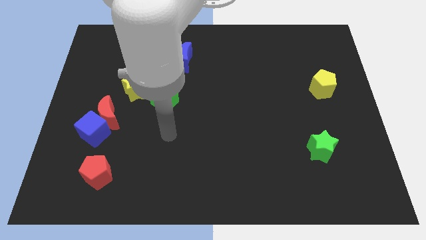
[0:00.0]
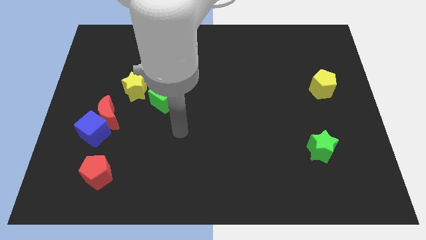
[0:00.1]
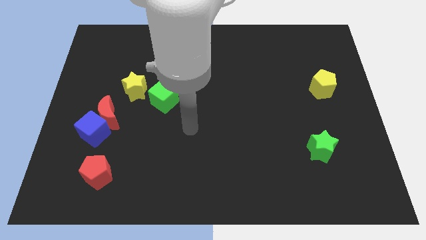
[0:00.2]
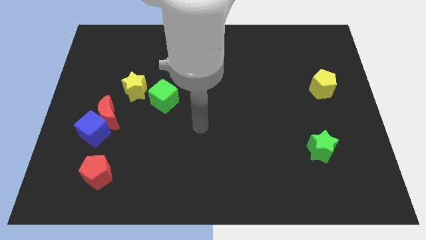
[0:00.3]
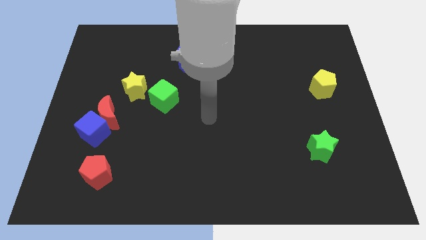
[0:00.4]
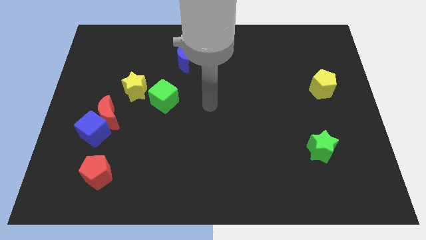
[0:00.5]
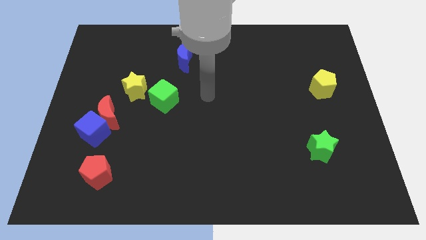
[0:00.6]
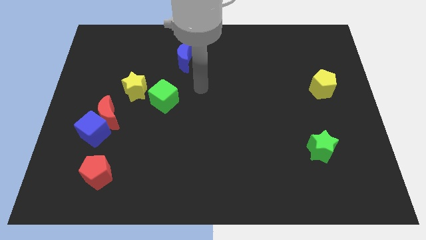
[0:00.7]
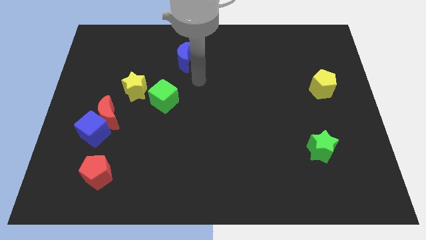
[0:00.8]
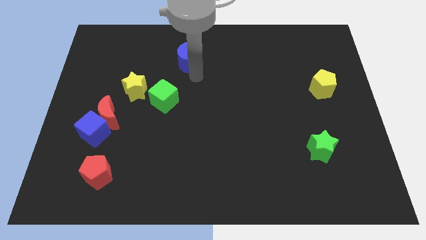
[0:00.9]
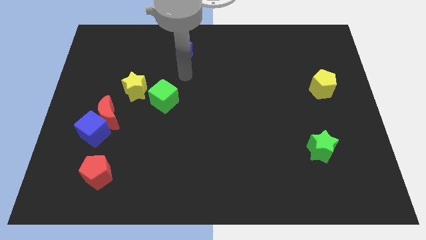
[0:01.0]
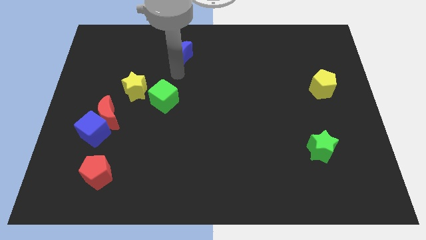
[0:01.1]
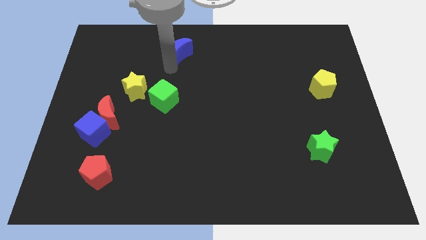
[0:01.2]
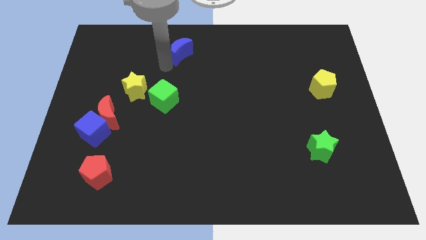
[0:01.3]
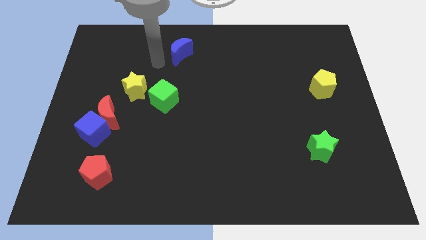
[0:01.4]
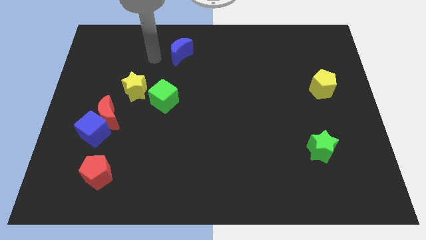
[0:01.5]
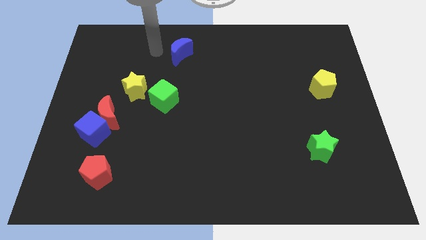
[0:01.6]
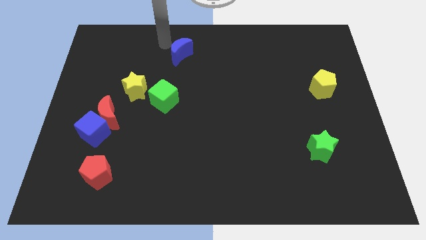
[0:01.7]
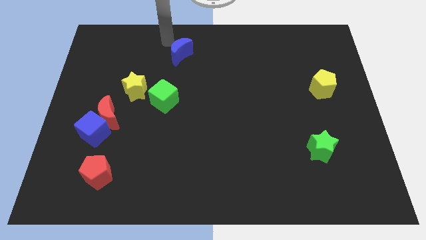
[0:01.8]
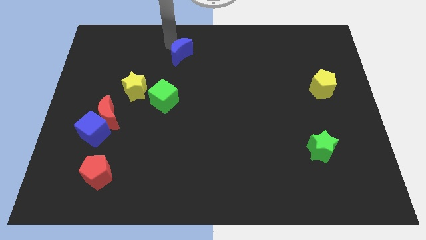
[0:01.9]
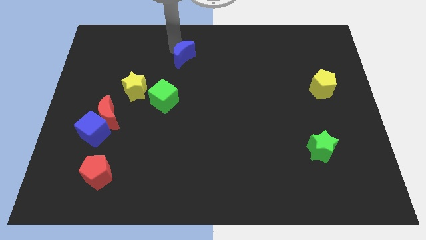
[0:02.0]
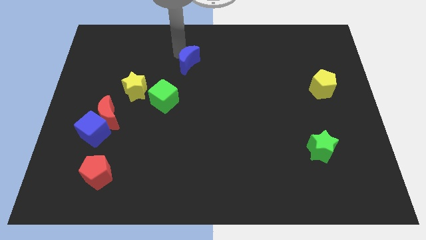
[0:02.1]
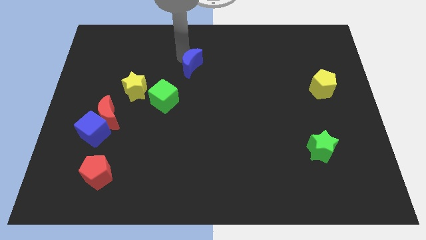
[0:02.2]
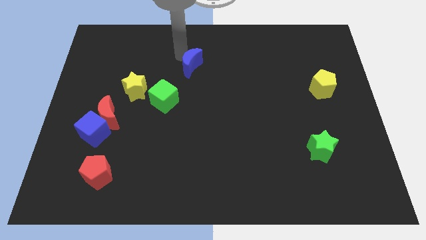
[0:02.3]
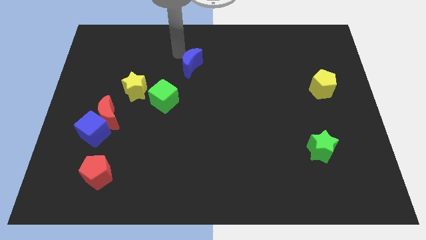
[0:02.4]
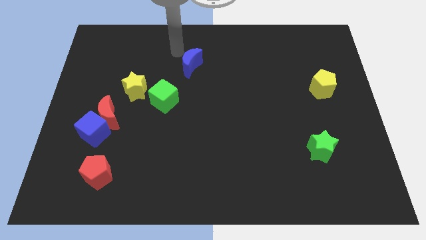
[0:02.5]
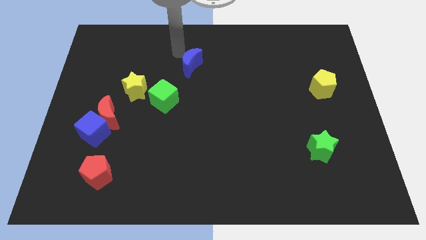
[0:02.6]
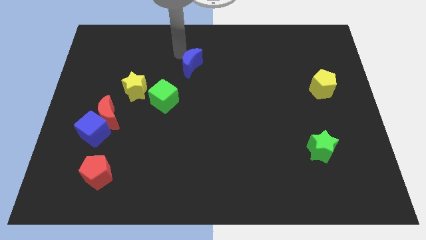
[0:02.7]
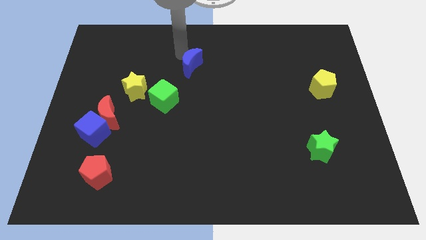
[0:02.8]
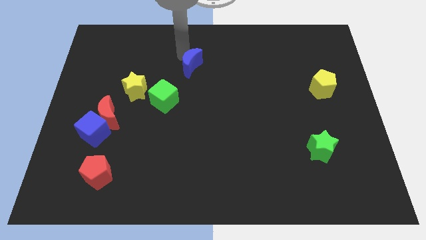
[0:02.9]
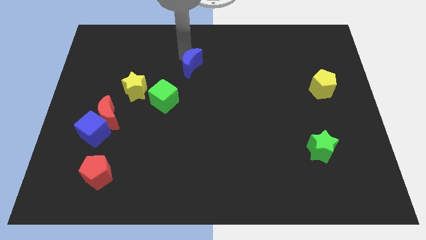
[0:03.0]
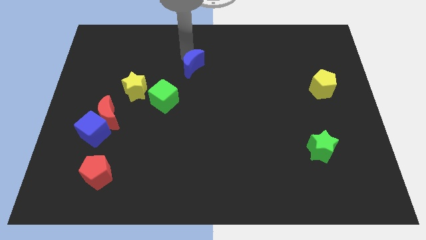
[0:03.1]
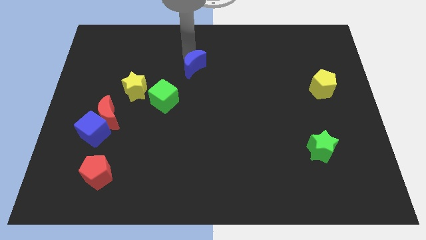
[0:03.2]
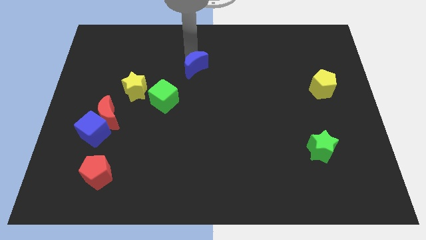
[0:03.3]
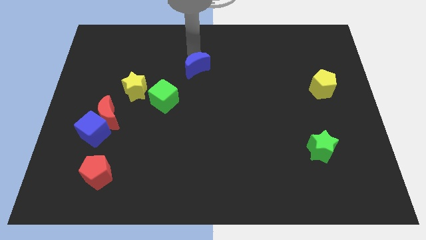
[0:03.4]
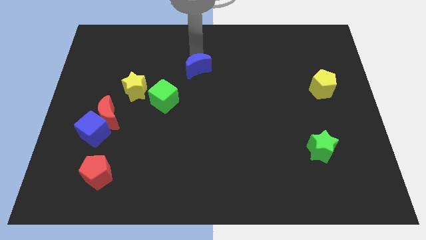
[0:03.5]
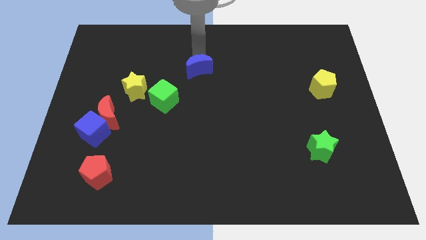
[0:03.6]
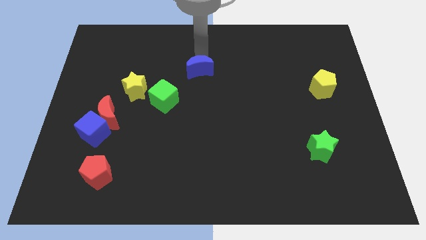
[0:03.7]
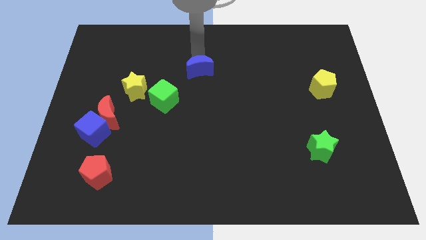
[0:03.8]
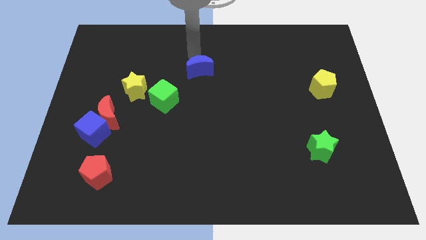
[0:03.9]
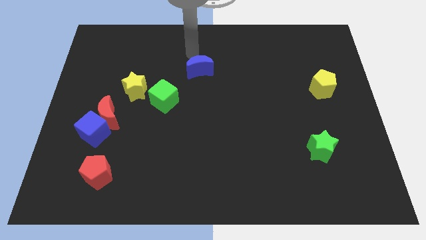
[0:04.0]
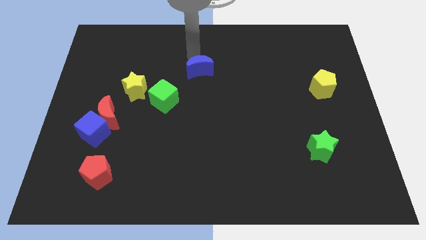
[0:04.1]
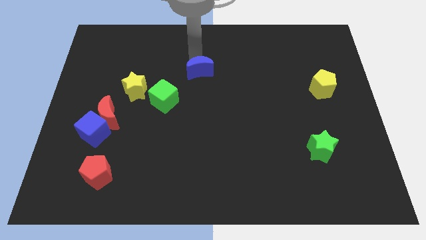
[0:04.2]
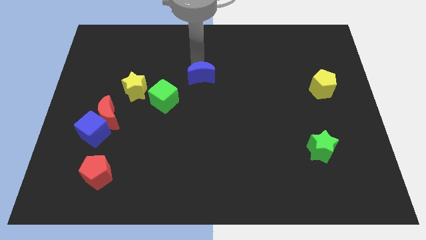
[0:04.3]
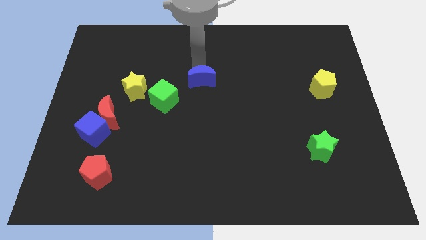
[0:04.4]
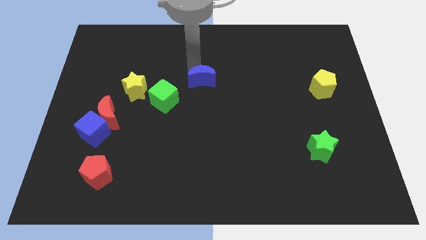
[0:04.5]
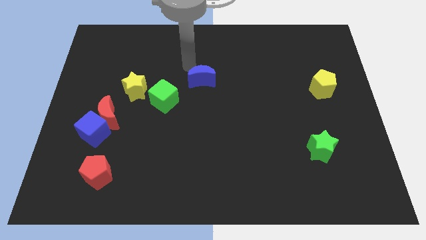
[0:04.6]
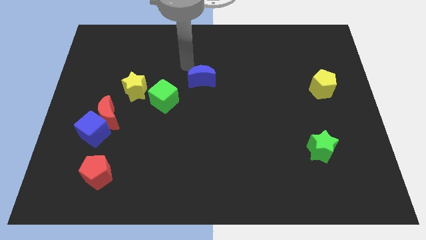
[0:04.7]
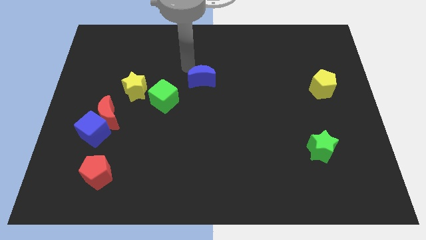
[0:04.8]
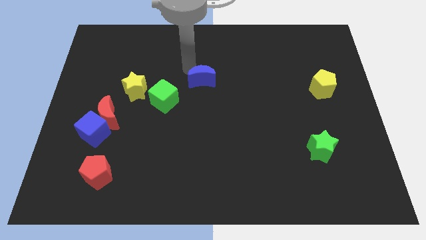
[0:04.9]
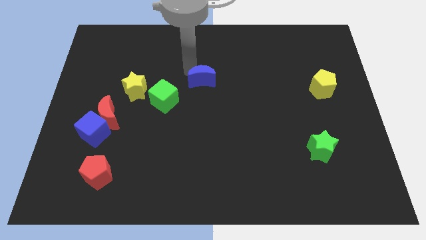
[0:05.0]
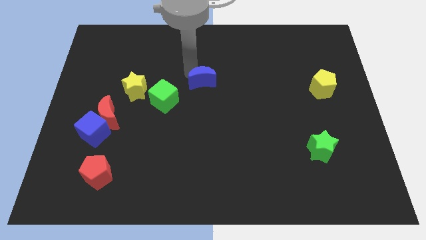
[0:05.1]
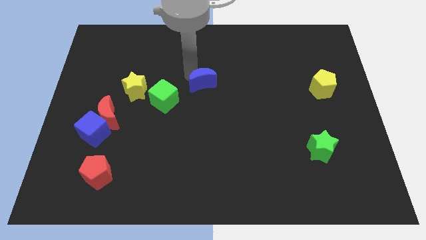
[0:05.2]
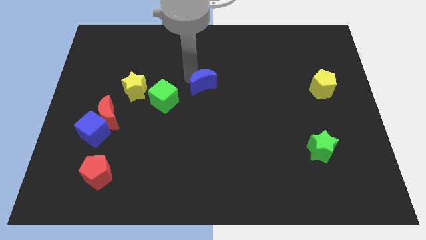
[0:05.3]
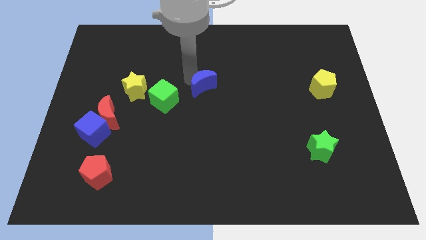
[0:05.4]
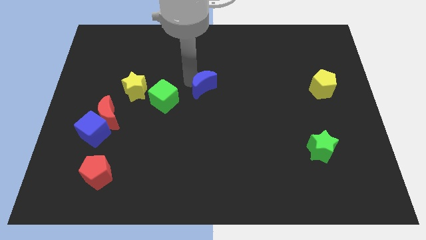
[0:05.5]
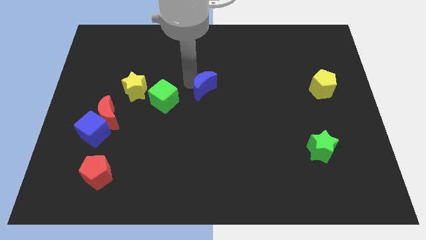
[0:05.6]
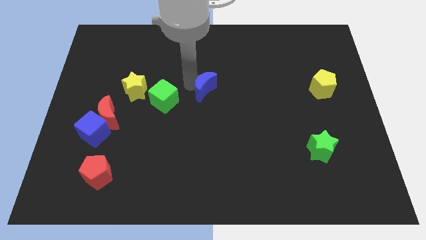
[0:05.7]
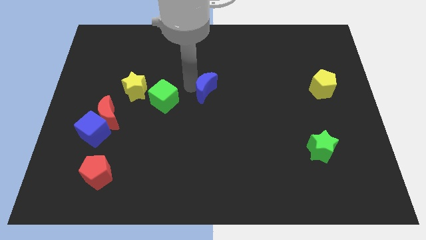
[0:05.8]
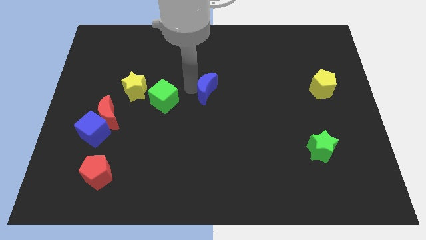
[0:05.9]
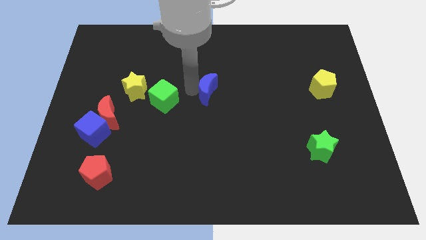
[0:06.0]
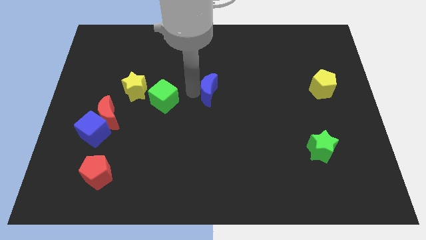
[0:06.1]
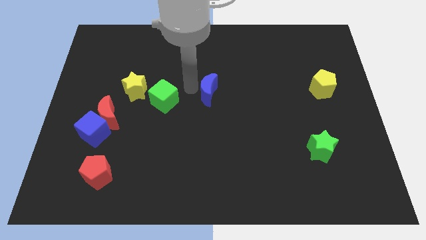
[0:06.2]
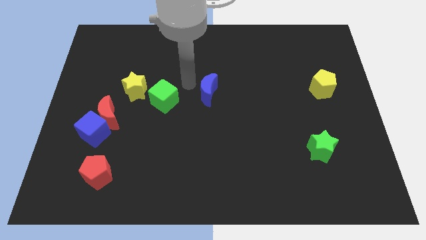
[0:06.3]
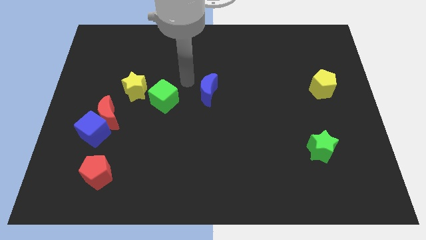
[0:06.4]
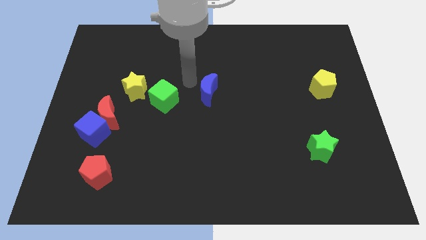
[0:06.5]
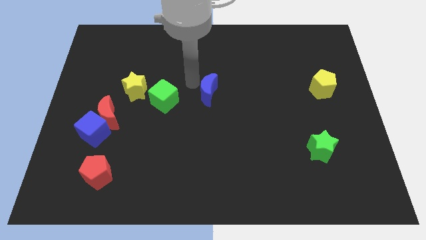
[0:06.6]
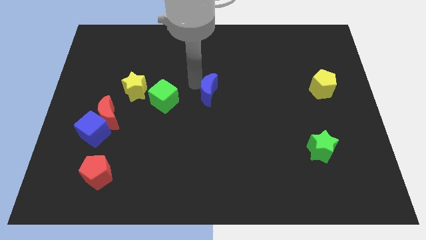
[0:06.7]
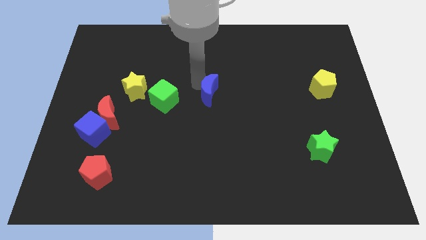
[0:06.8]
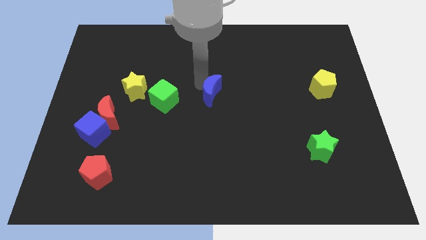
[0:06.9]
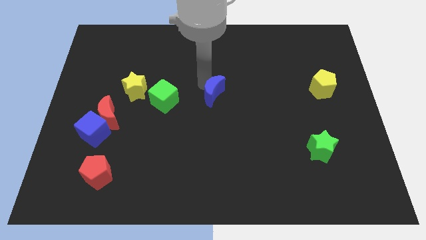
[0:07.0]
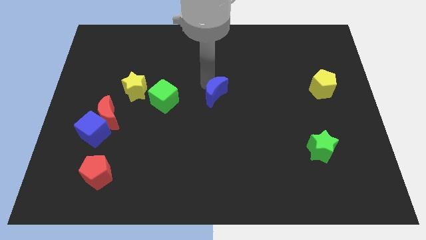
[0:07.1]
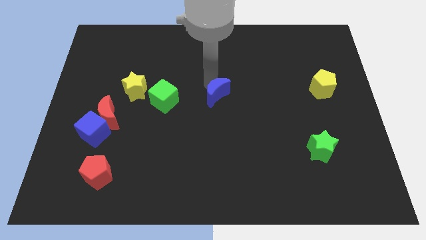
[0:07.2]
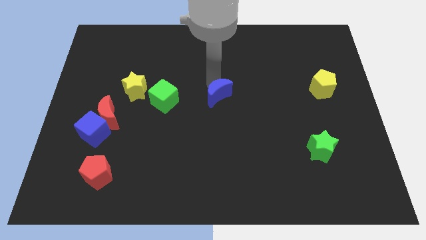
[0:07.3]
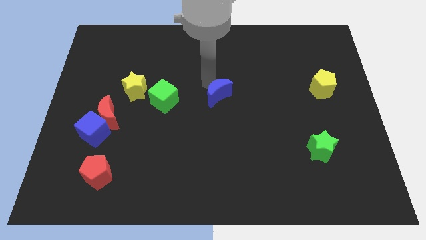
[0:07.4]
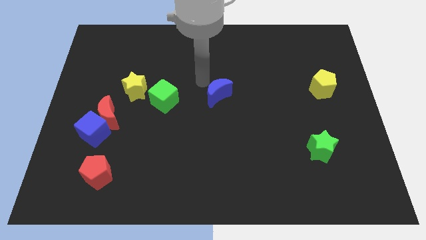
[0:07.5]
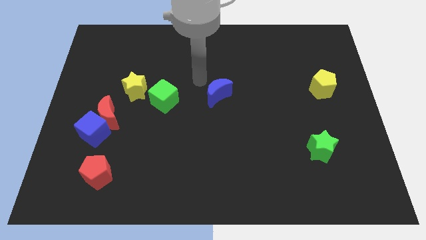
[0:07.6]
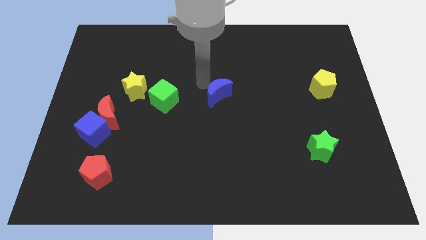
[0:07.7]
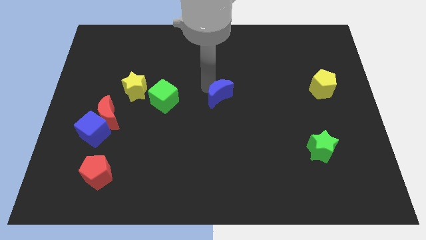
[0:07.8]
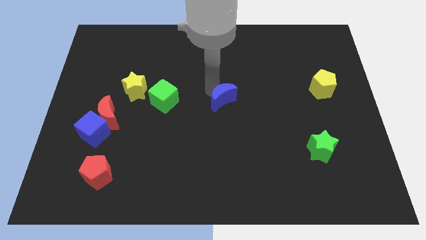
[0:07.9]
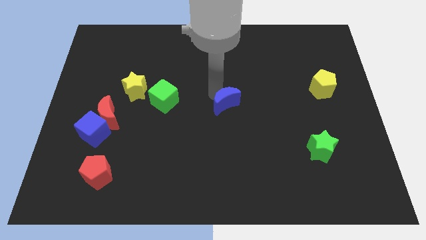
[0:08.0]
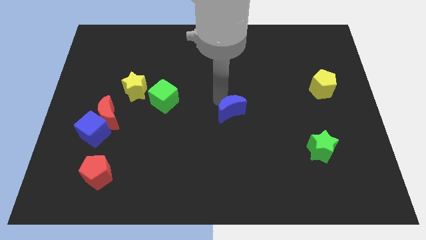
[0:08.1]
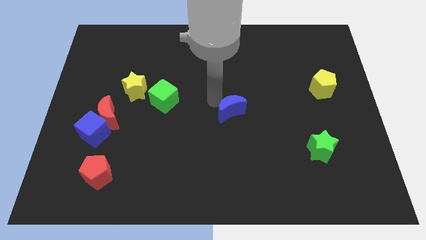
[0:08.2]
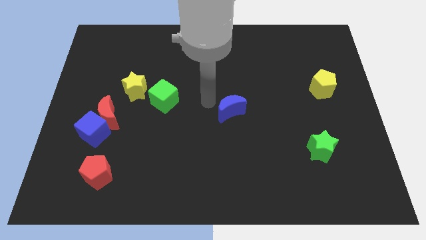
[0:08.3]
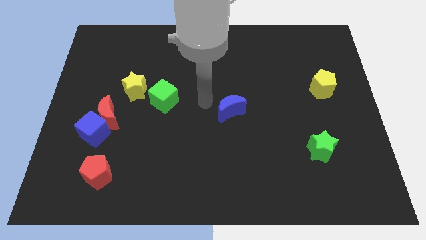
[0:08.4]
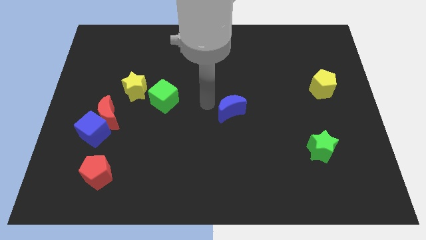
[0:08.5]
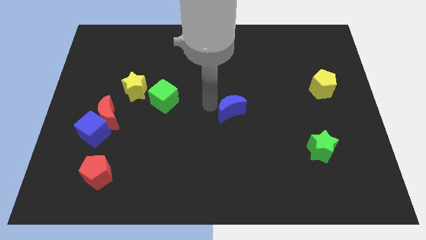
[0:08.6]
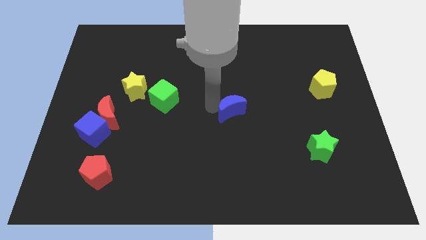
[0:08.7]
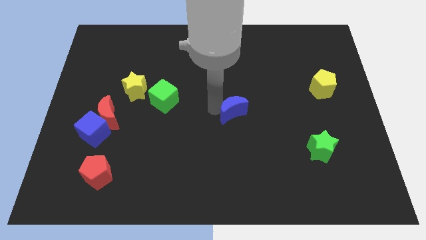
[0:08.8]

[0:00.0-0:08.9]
slide the blue moon diagonally down and right
